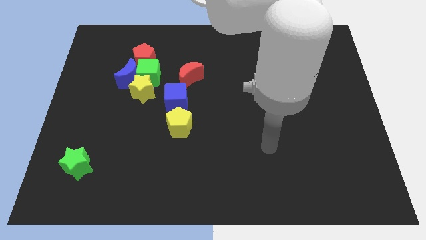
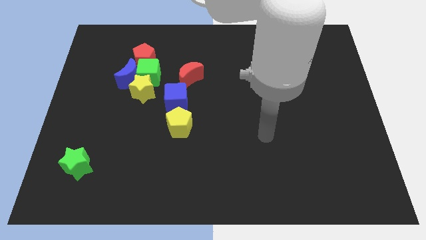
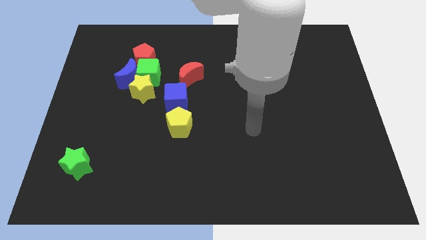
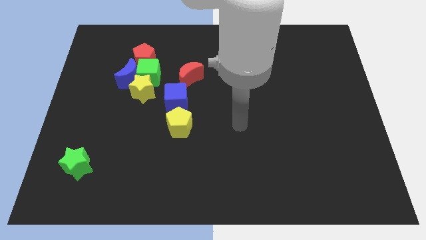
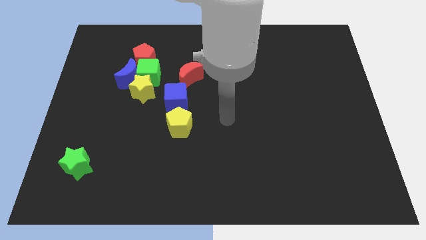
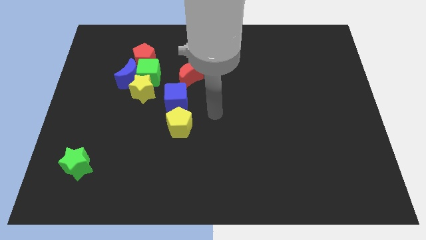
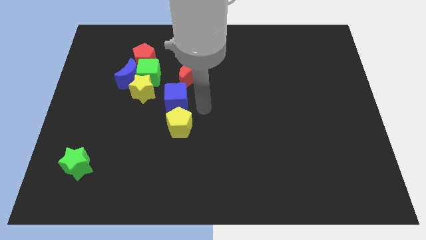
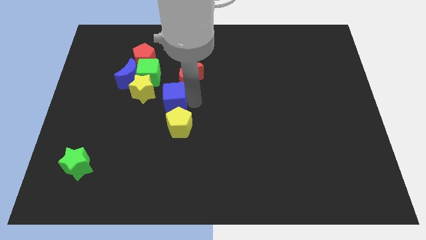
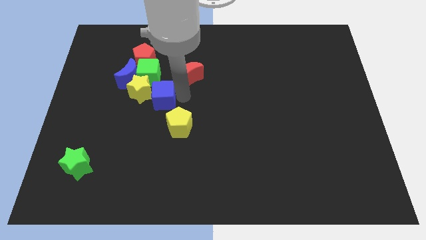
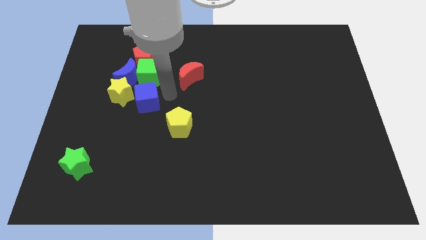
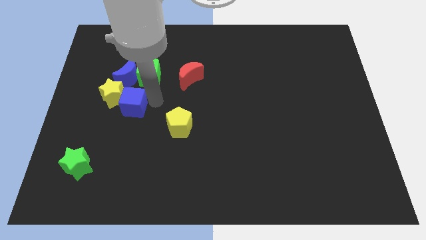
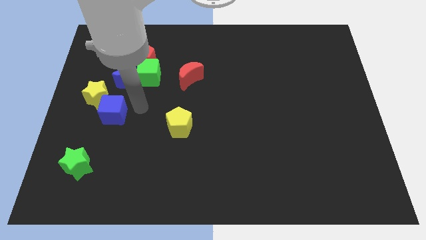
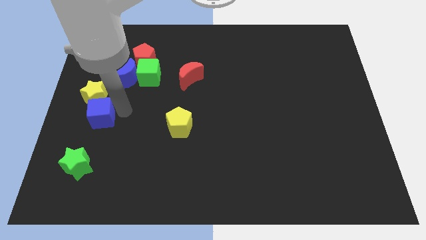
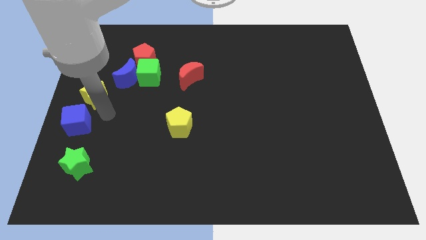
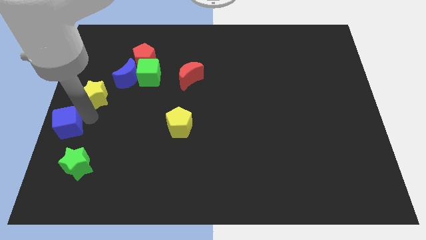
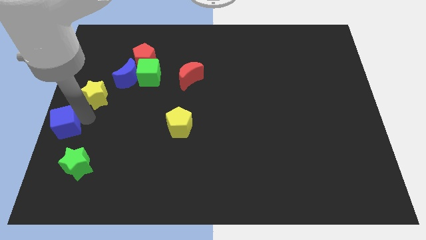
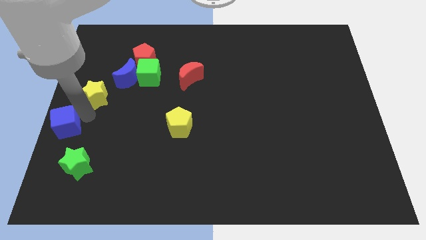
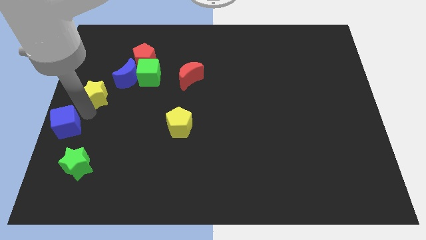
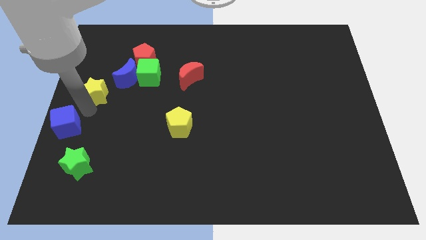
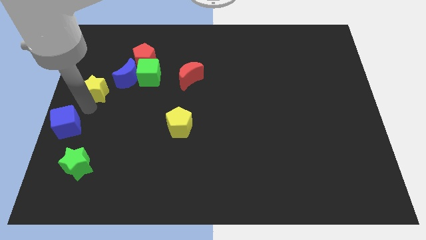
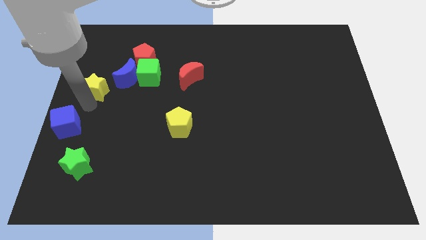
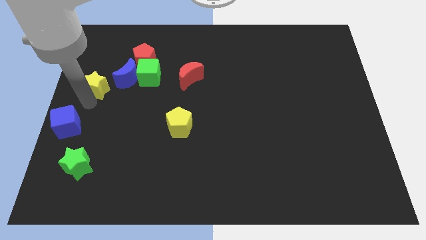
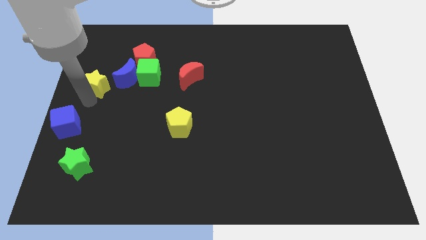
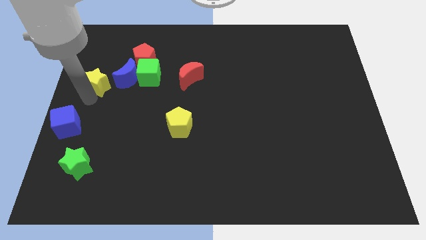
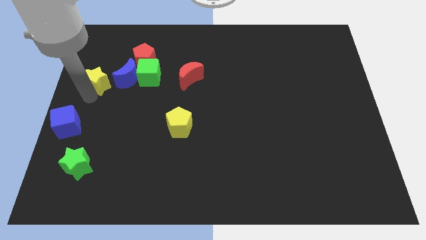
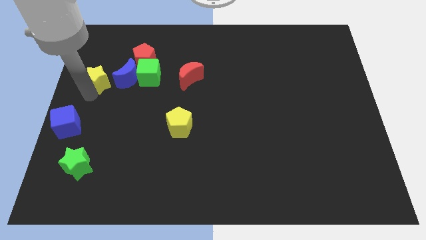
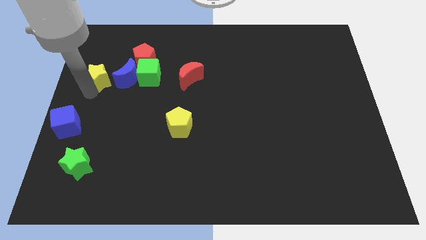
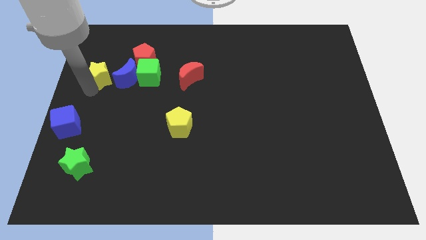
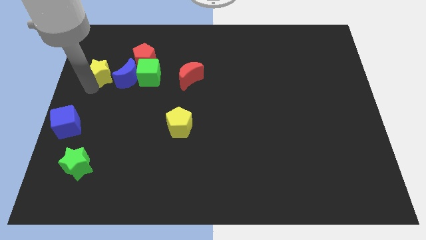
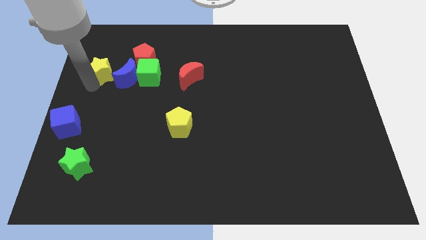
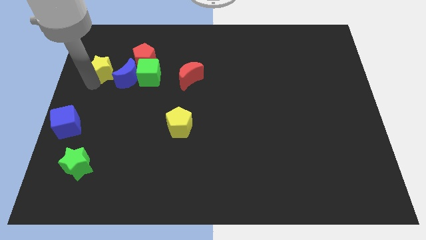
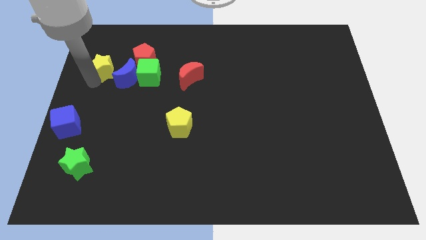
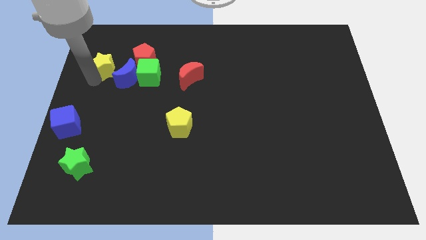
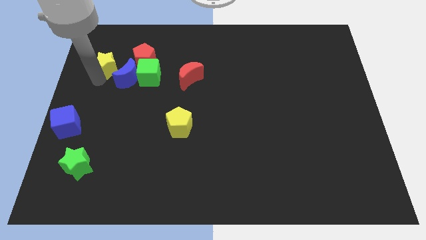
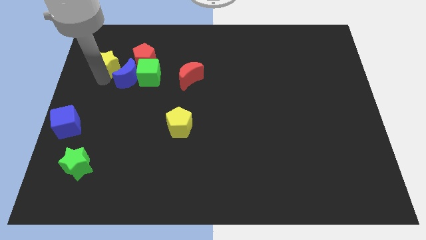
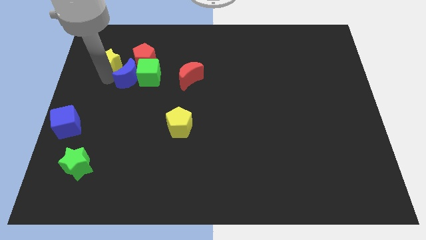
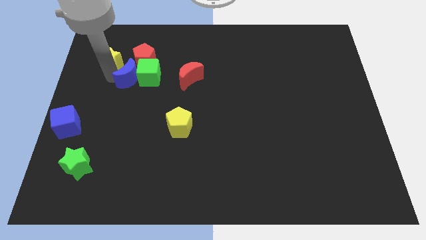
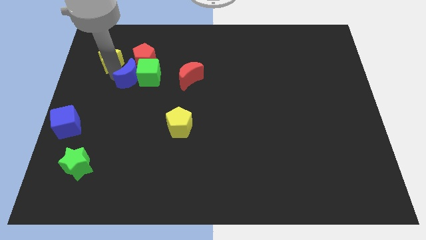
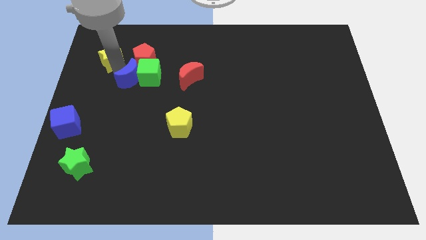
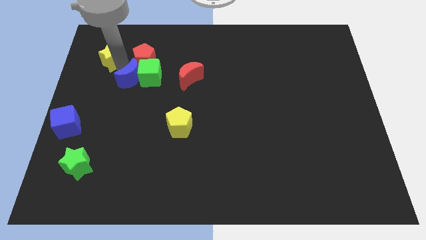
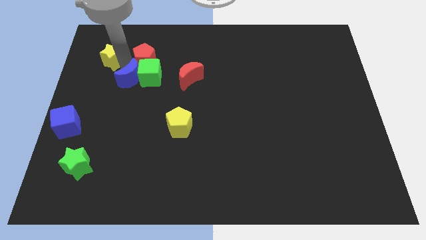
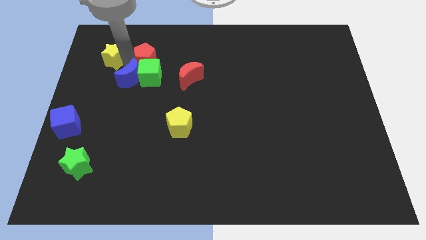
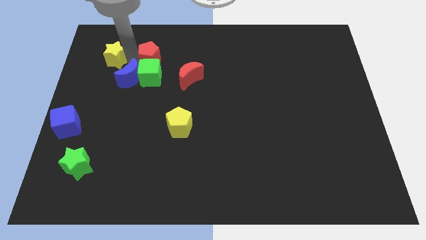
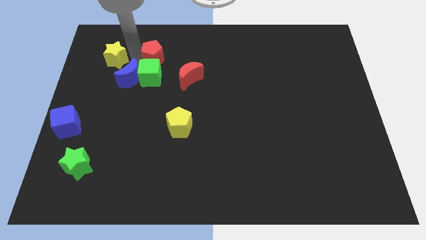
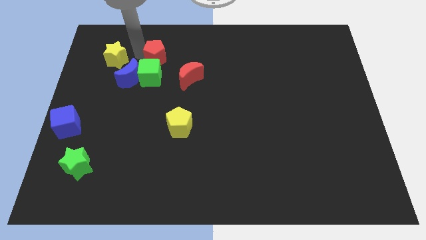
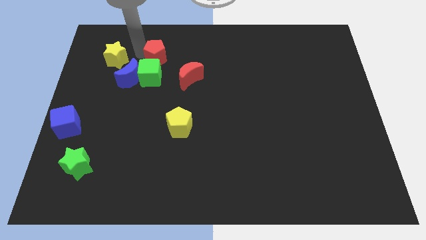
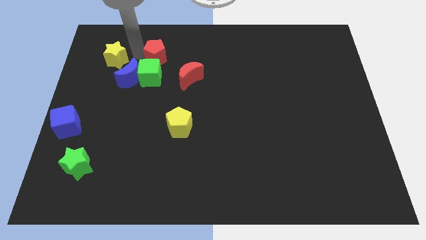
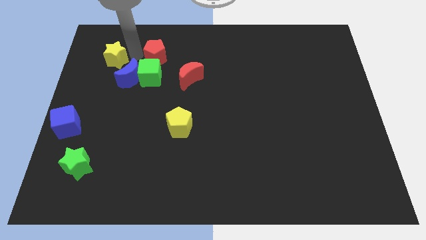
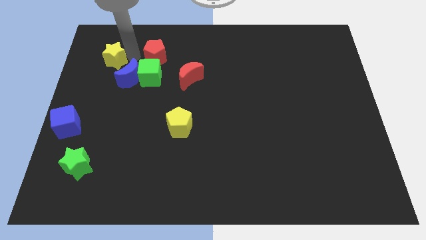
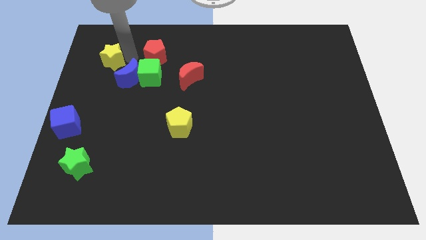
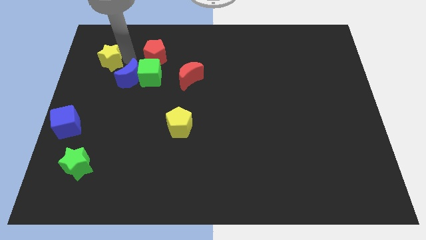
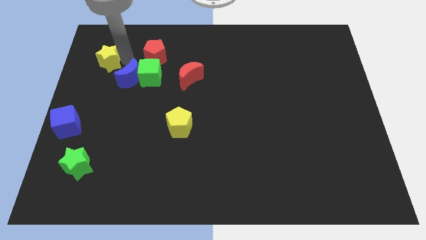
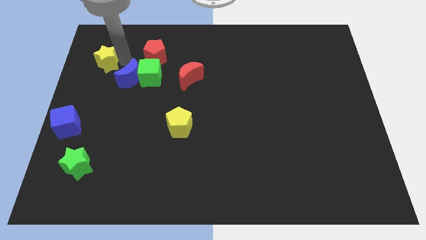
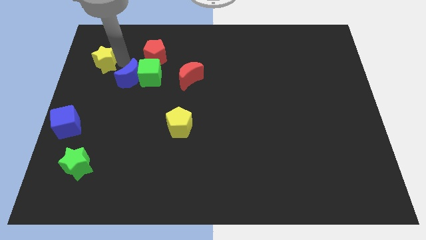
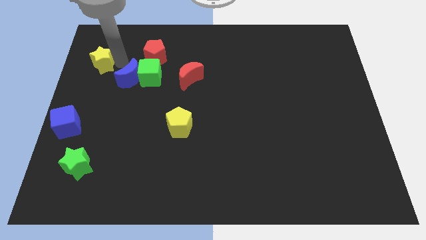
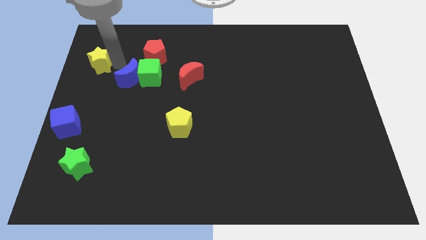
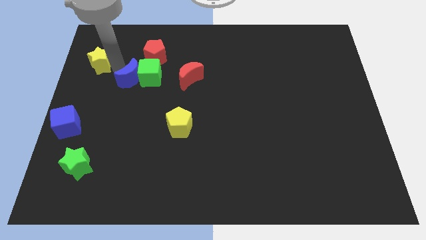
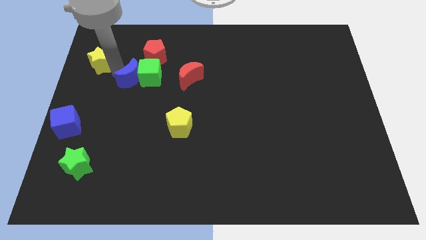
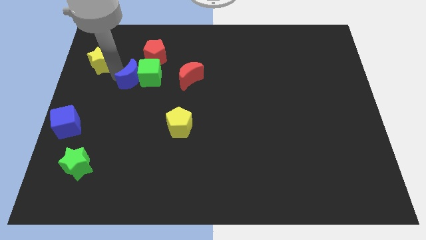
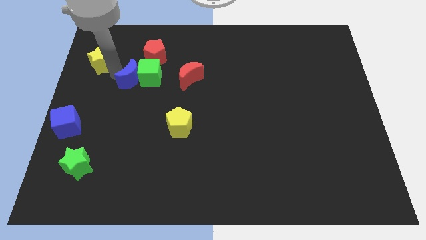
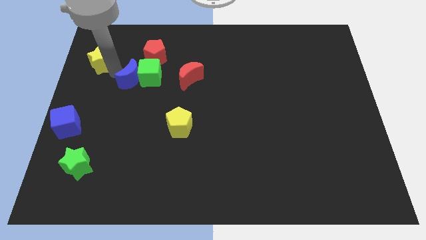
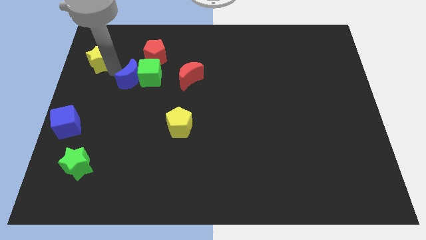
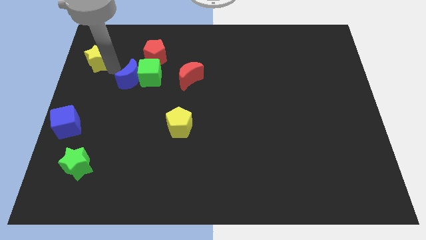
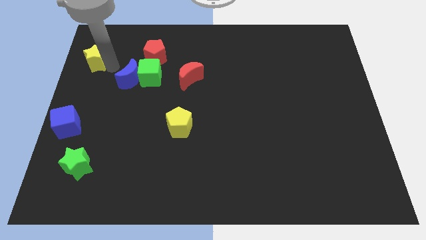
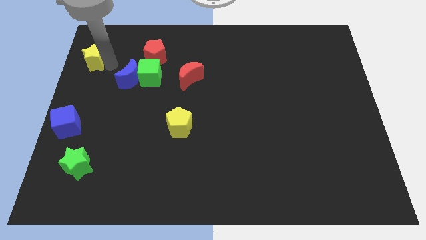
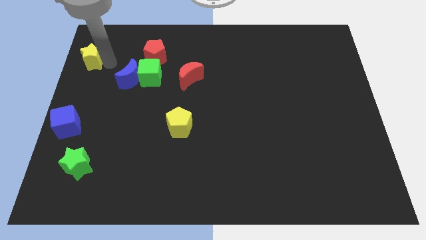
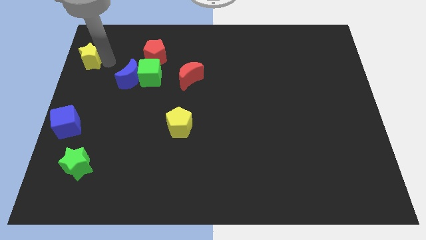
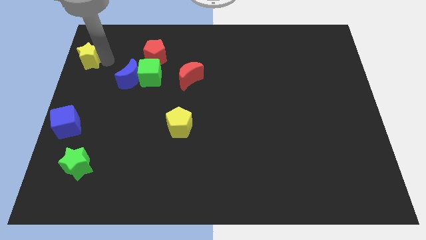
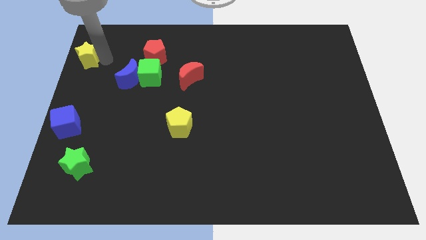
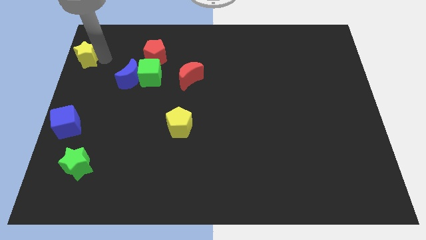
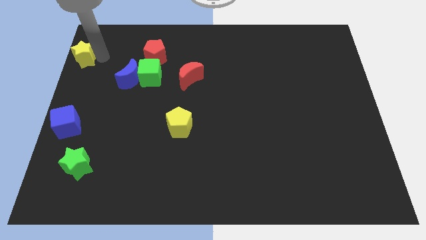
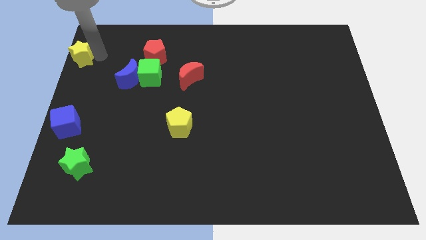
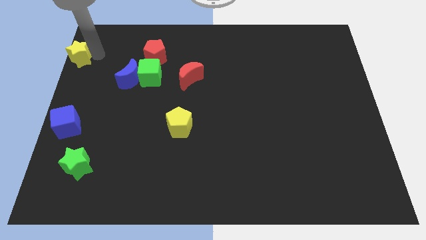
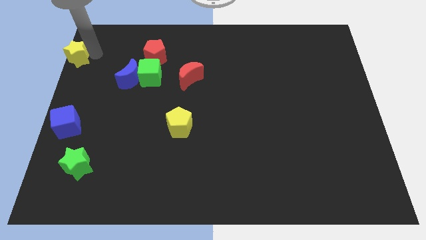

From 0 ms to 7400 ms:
slide the yellow star to the top left of the board
